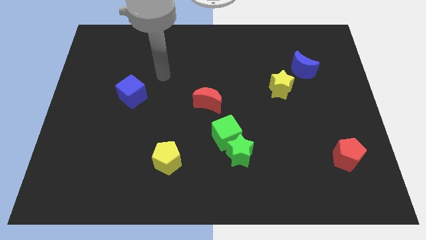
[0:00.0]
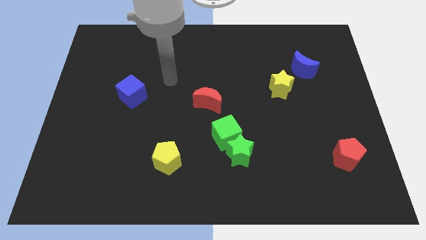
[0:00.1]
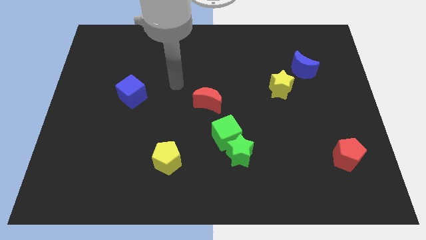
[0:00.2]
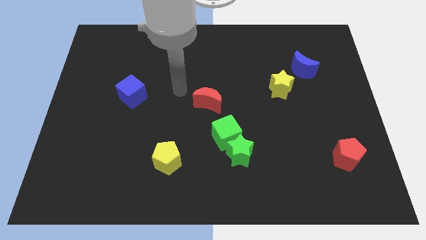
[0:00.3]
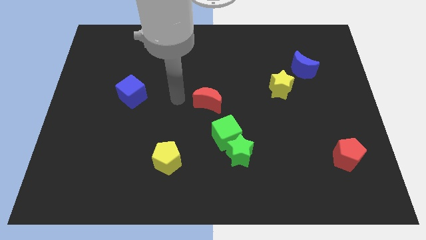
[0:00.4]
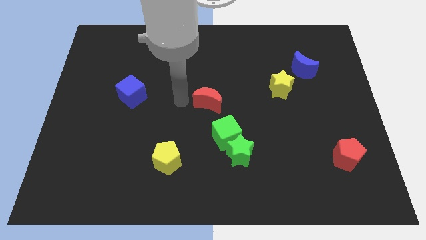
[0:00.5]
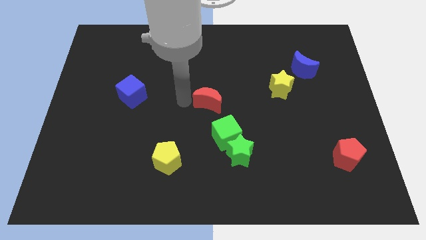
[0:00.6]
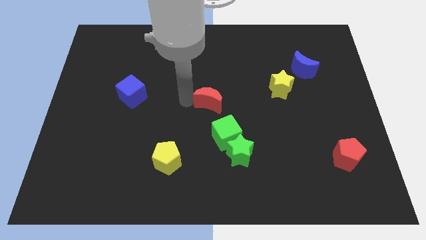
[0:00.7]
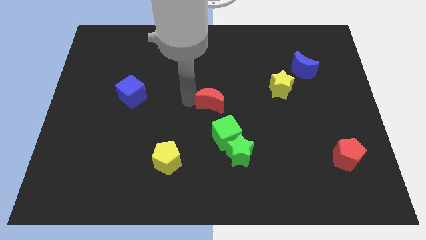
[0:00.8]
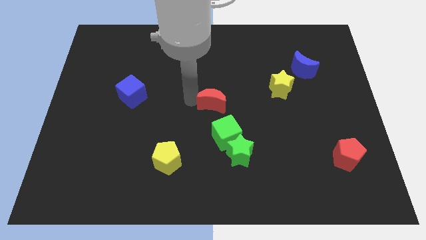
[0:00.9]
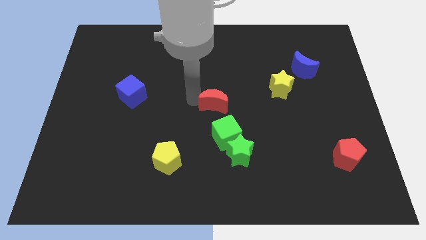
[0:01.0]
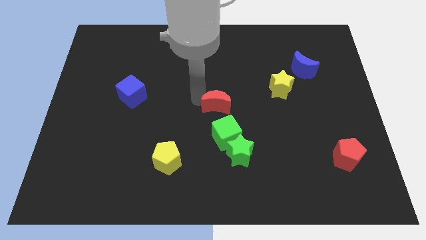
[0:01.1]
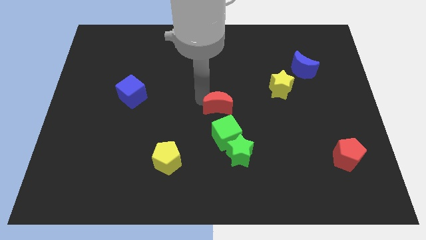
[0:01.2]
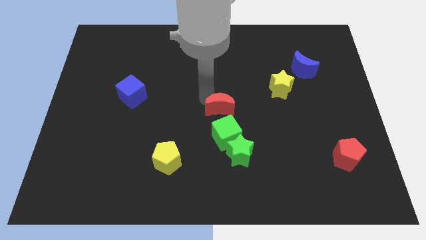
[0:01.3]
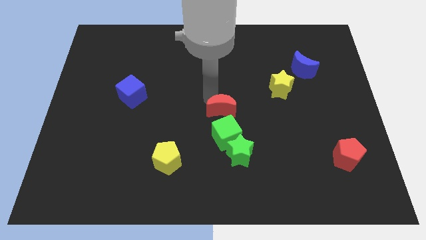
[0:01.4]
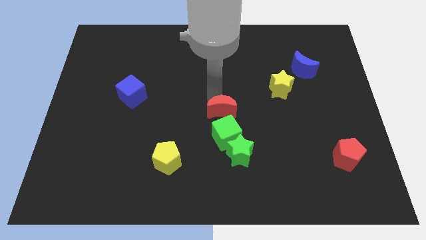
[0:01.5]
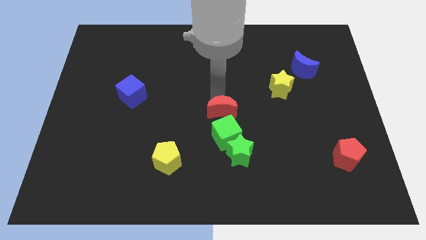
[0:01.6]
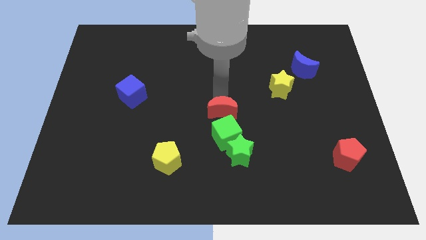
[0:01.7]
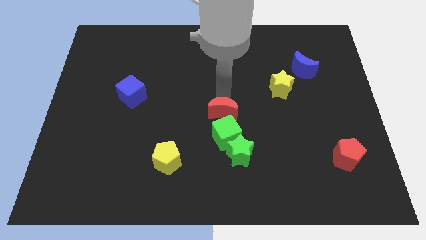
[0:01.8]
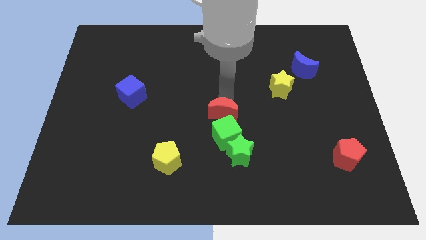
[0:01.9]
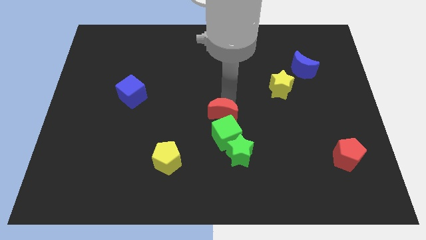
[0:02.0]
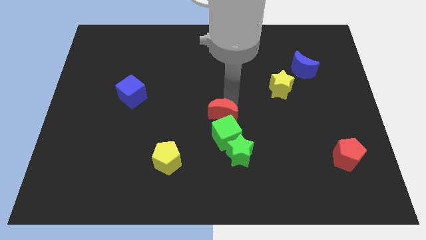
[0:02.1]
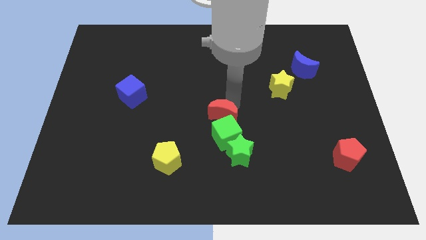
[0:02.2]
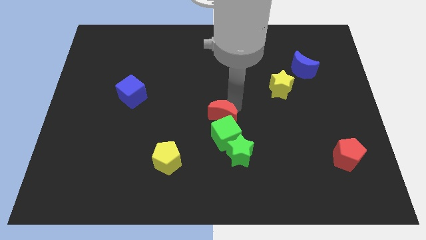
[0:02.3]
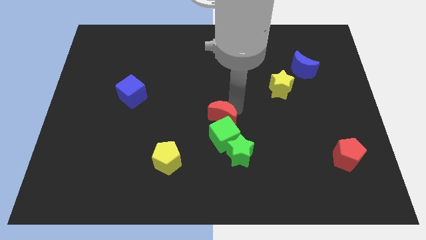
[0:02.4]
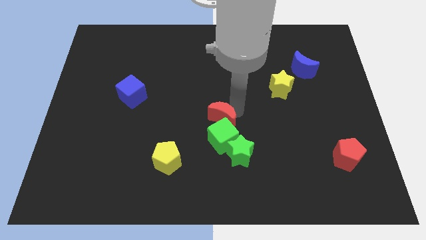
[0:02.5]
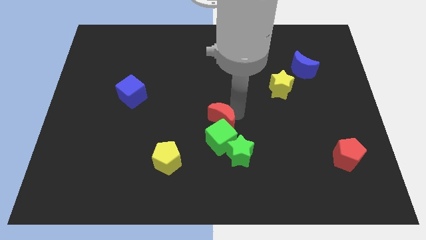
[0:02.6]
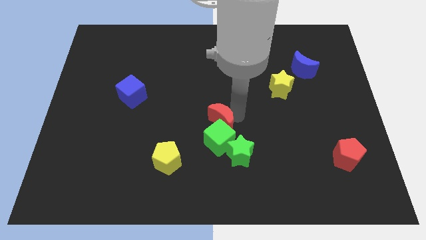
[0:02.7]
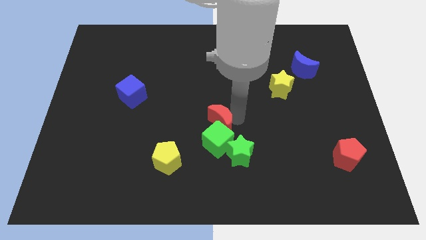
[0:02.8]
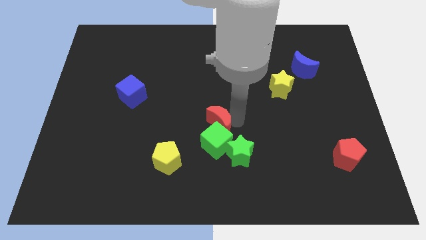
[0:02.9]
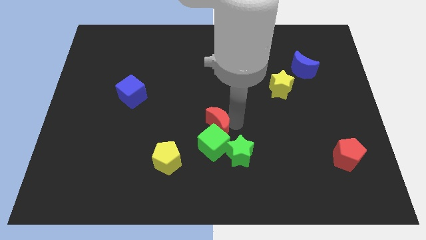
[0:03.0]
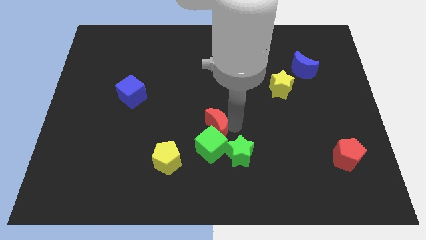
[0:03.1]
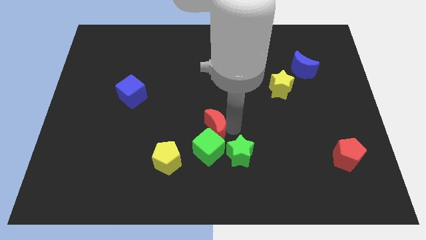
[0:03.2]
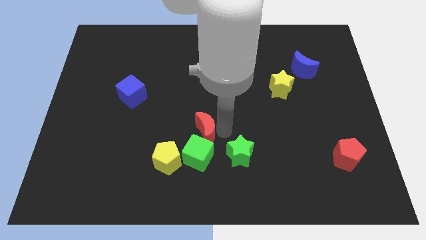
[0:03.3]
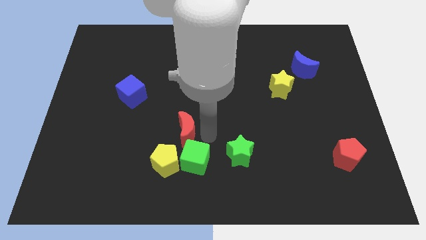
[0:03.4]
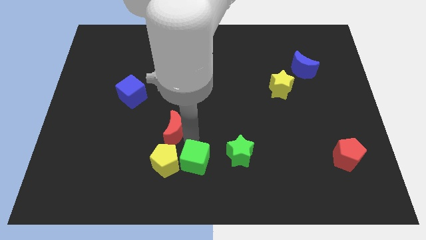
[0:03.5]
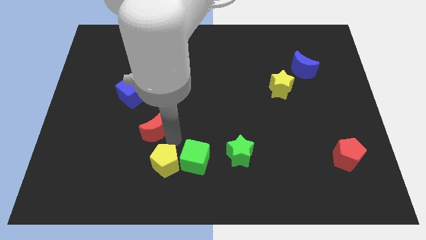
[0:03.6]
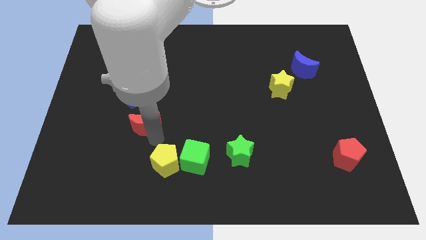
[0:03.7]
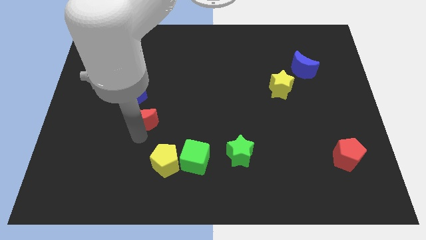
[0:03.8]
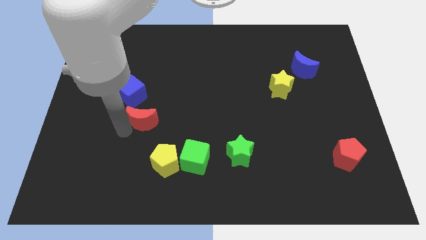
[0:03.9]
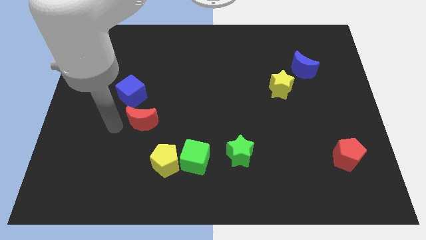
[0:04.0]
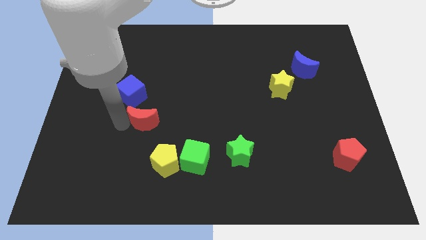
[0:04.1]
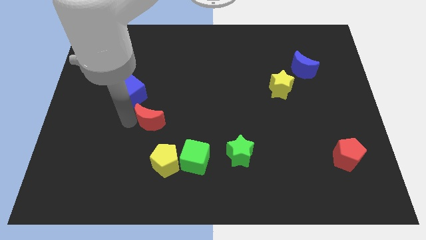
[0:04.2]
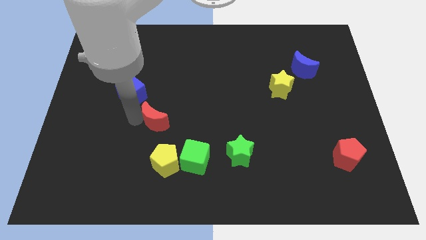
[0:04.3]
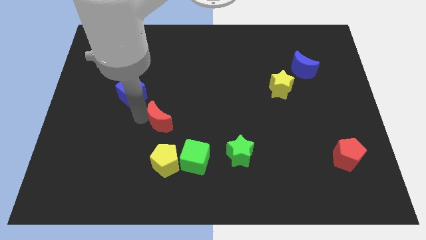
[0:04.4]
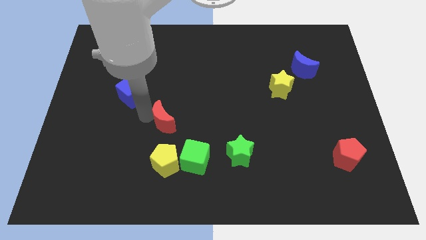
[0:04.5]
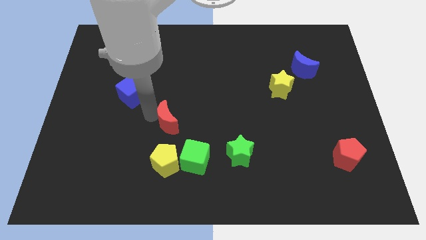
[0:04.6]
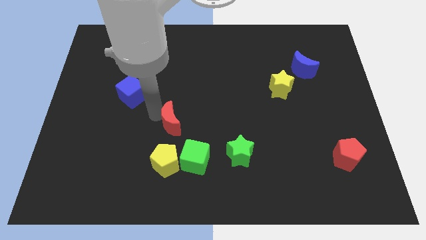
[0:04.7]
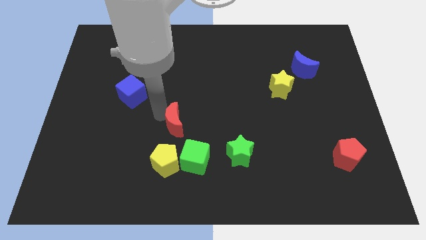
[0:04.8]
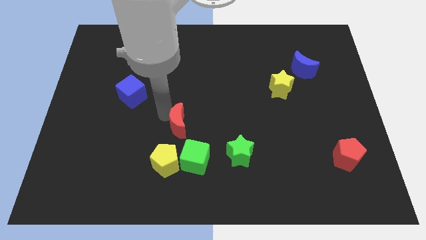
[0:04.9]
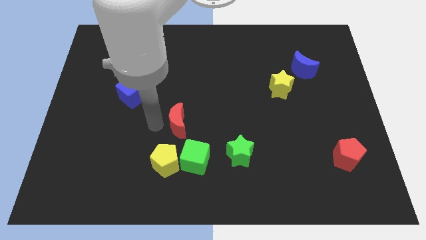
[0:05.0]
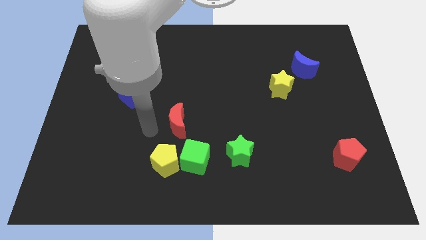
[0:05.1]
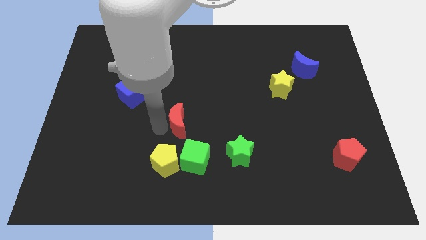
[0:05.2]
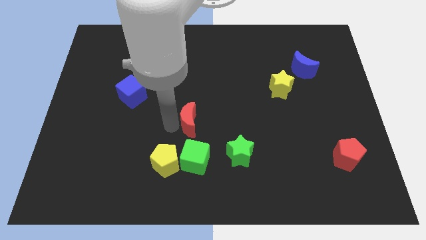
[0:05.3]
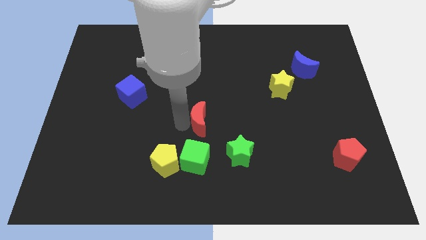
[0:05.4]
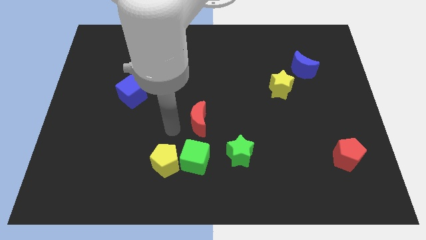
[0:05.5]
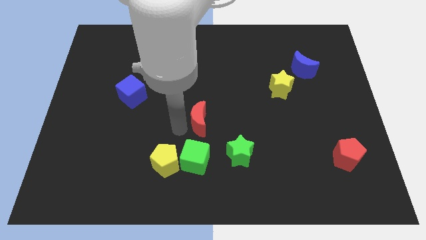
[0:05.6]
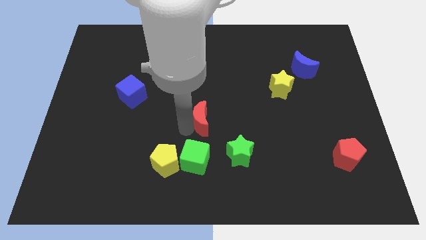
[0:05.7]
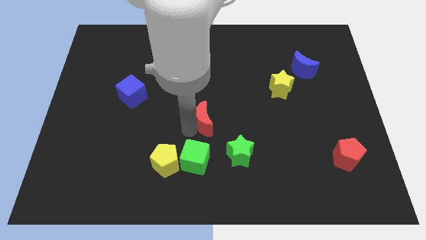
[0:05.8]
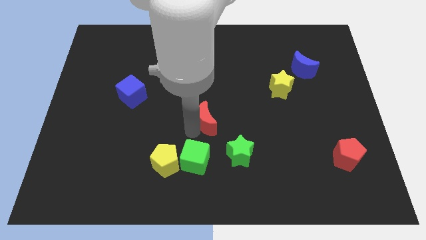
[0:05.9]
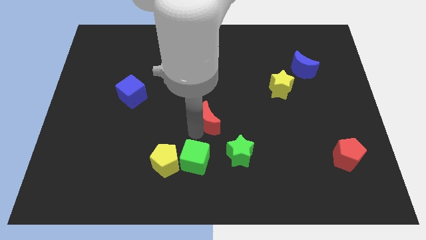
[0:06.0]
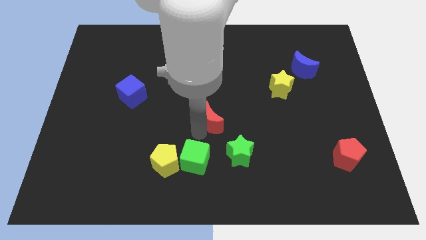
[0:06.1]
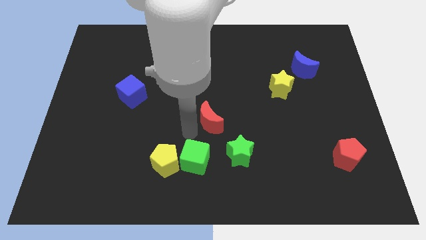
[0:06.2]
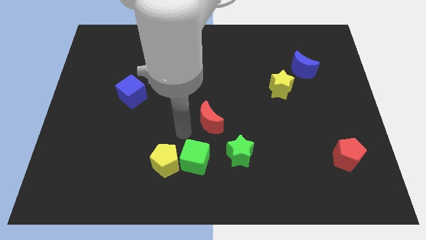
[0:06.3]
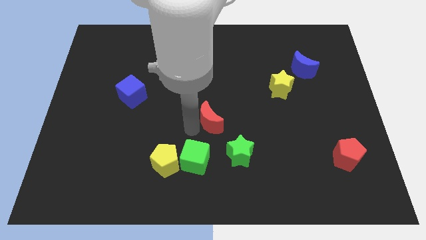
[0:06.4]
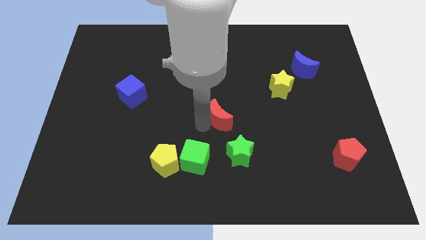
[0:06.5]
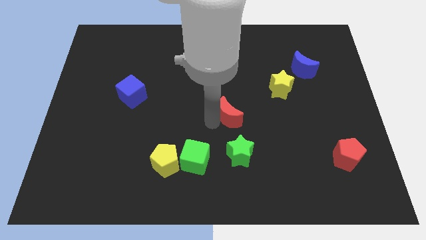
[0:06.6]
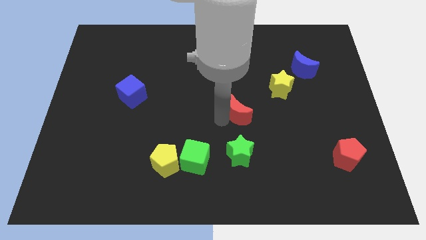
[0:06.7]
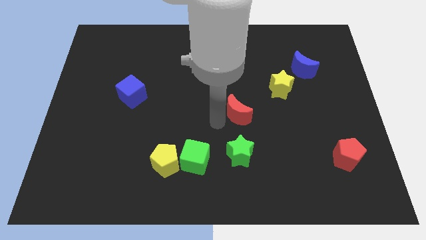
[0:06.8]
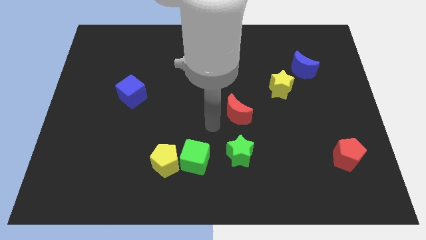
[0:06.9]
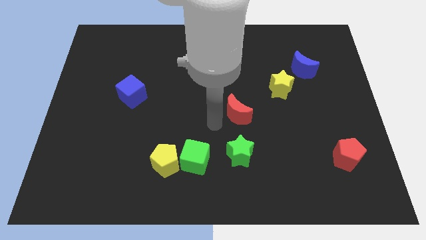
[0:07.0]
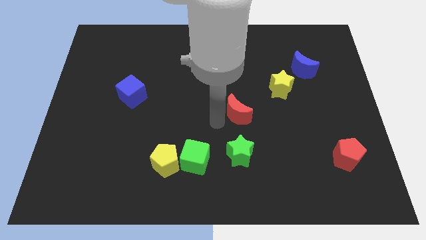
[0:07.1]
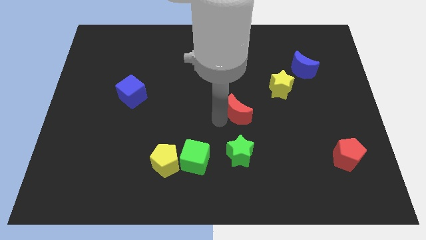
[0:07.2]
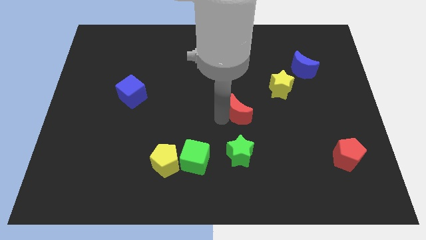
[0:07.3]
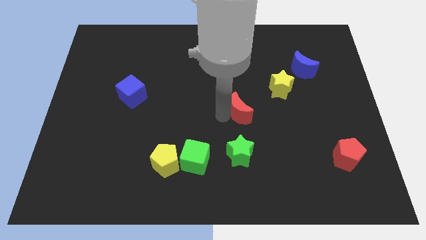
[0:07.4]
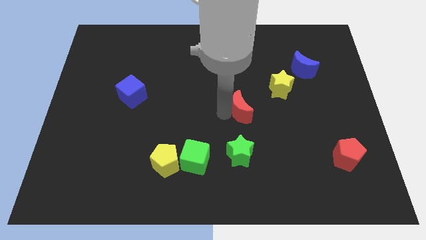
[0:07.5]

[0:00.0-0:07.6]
slightly slide the red moon right

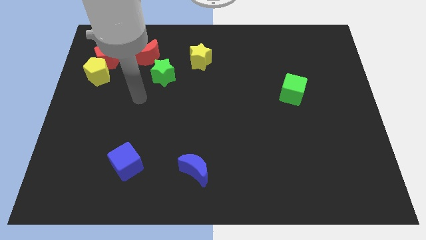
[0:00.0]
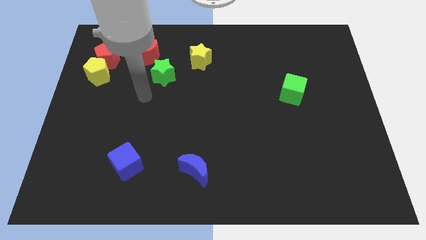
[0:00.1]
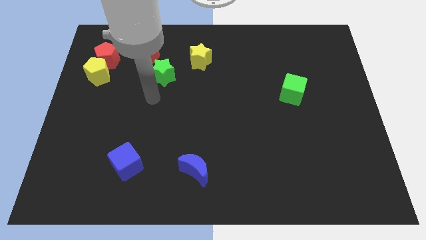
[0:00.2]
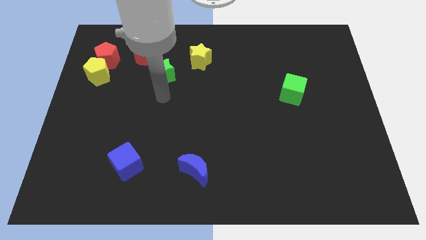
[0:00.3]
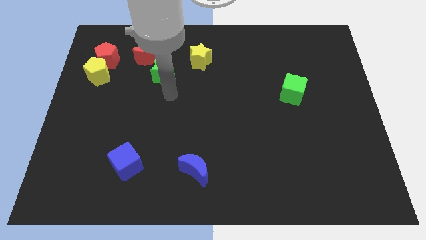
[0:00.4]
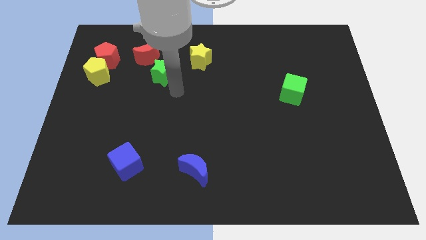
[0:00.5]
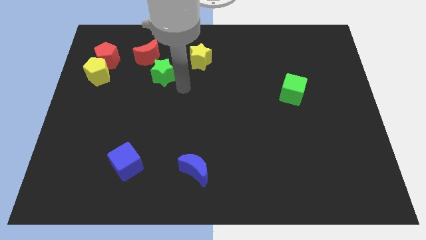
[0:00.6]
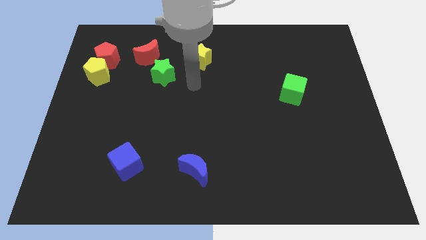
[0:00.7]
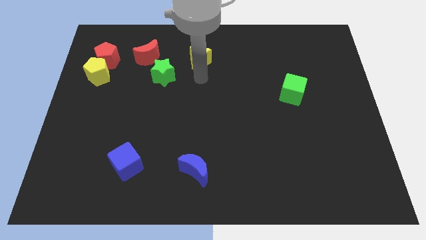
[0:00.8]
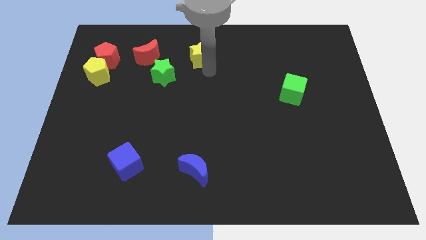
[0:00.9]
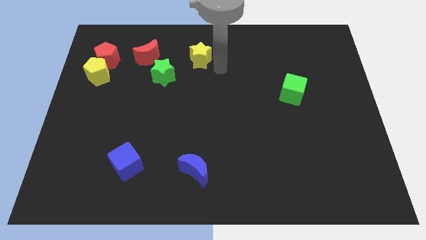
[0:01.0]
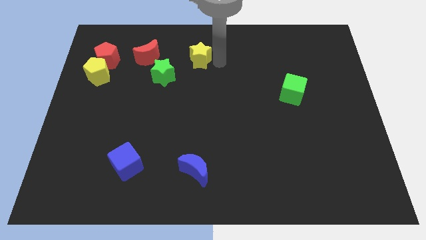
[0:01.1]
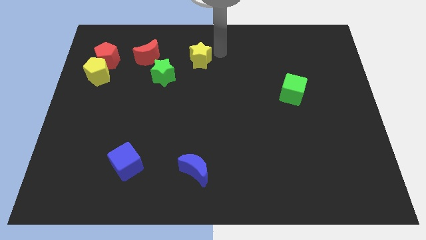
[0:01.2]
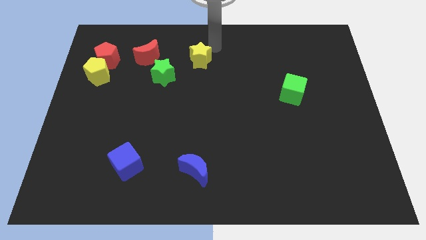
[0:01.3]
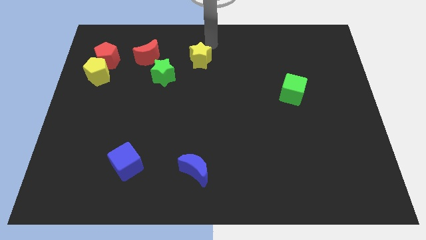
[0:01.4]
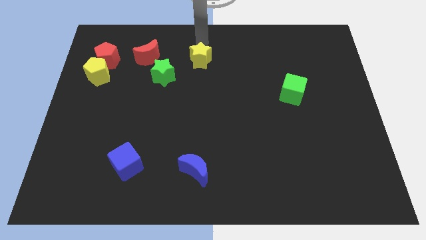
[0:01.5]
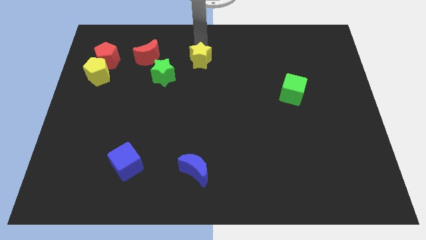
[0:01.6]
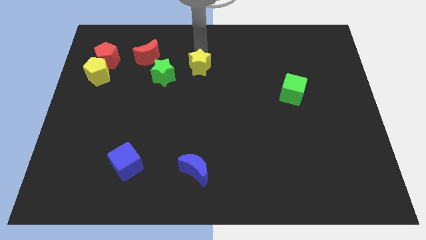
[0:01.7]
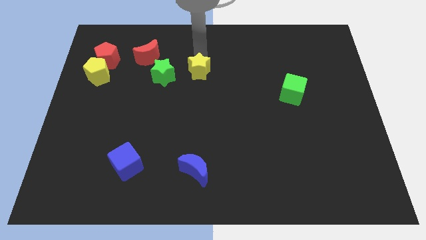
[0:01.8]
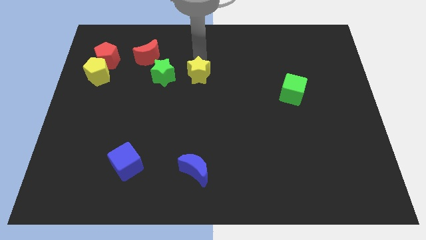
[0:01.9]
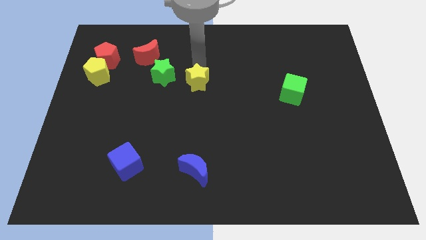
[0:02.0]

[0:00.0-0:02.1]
slightly move the yellow star down
